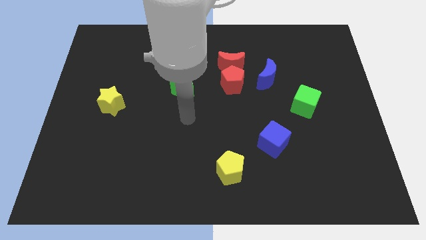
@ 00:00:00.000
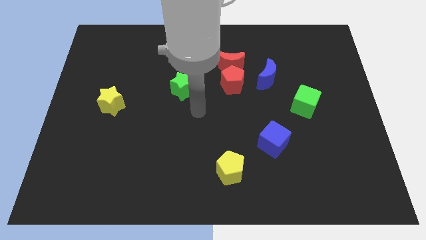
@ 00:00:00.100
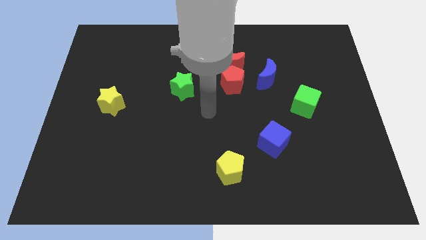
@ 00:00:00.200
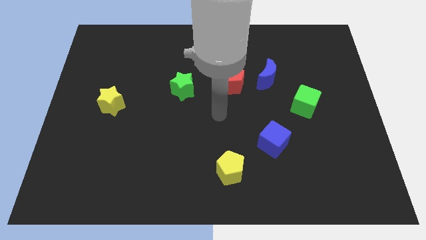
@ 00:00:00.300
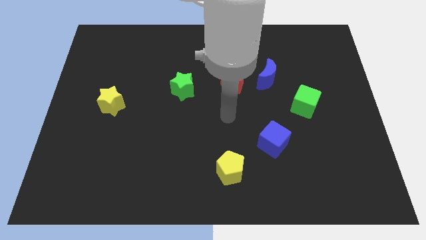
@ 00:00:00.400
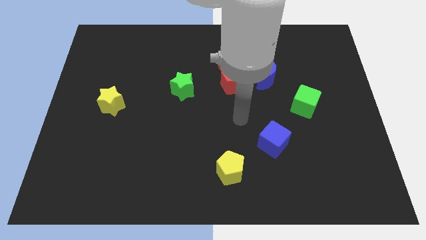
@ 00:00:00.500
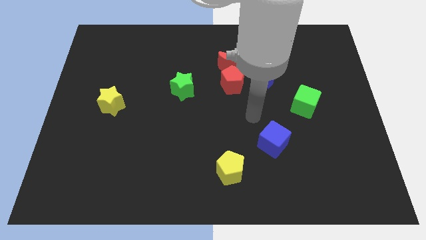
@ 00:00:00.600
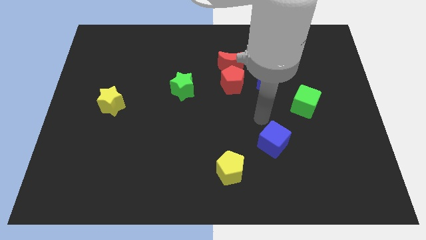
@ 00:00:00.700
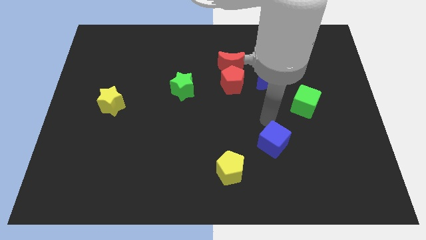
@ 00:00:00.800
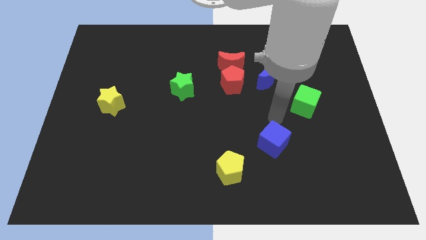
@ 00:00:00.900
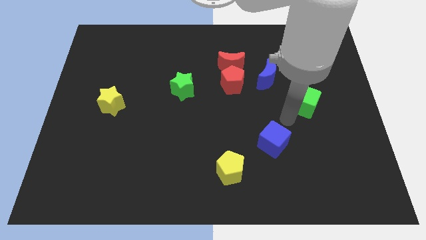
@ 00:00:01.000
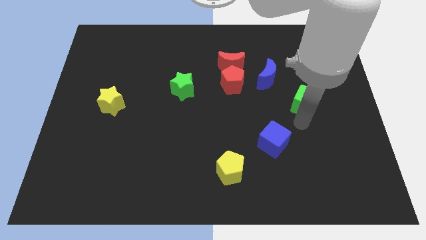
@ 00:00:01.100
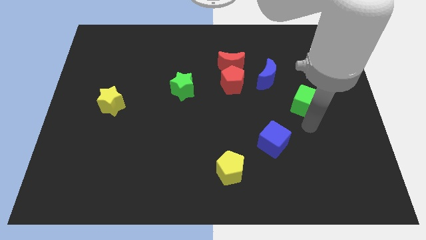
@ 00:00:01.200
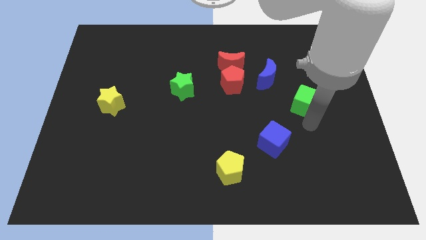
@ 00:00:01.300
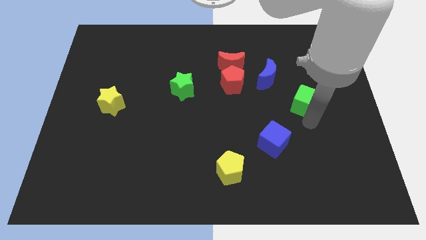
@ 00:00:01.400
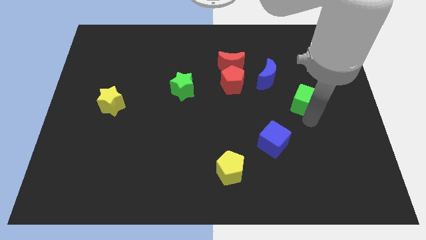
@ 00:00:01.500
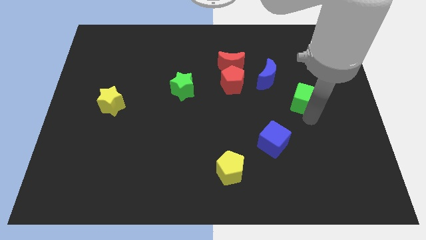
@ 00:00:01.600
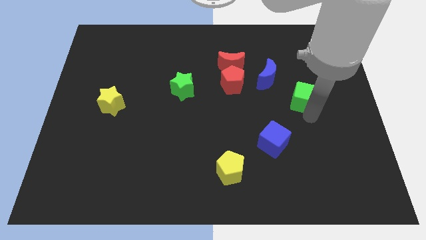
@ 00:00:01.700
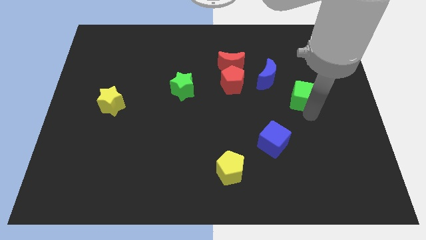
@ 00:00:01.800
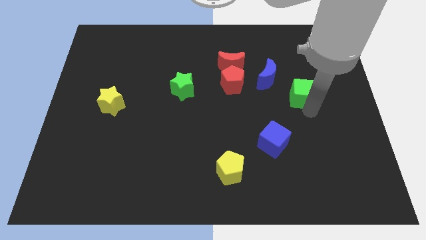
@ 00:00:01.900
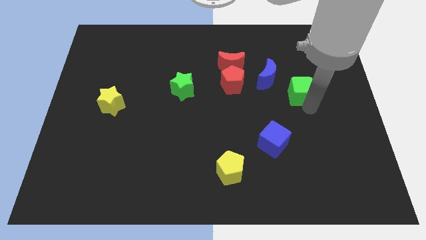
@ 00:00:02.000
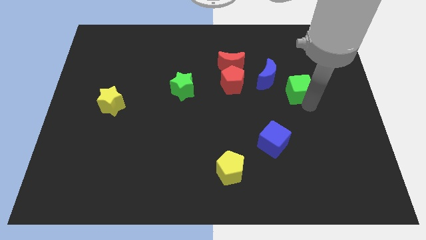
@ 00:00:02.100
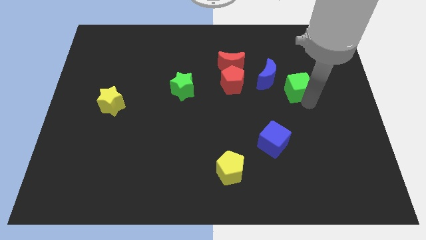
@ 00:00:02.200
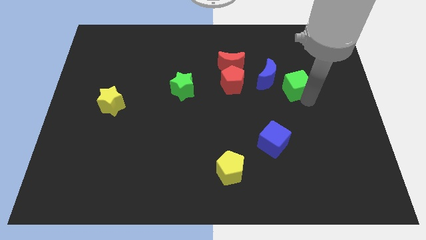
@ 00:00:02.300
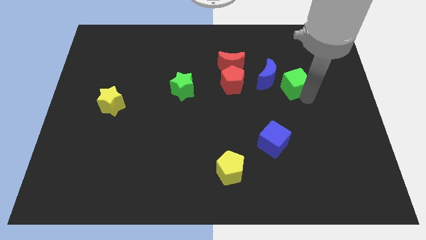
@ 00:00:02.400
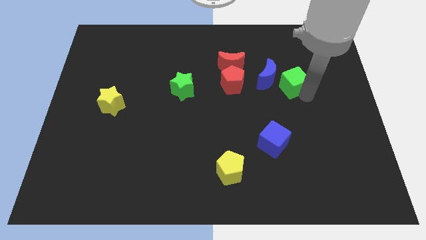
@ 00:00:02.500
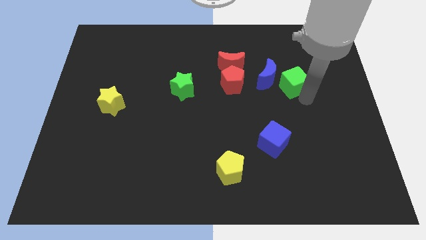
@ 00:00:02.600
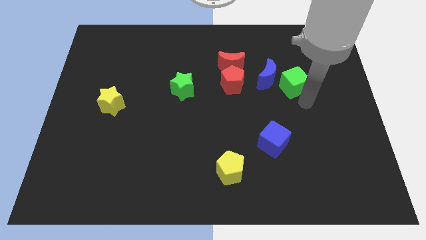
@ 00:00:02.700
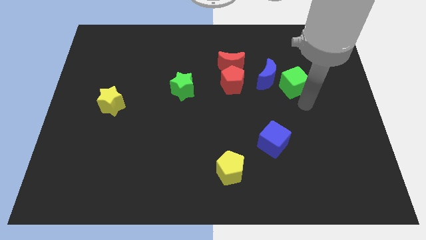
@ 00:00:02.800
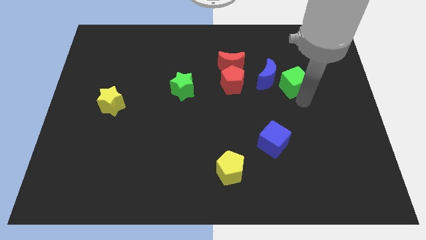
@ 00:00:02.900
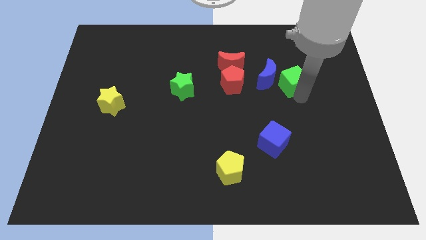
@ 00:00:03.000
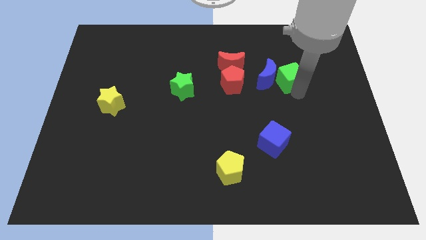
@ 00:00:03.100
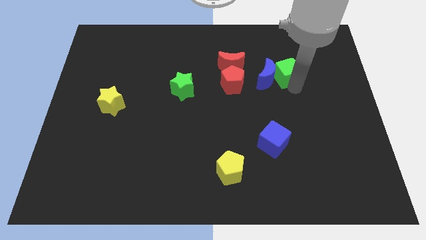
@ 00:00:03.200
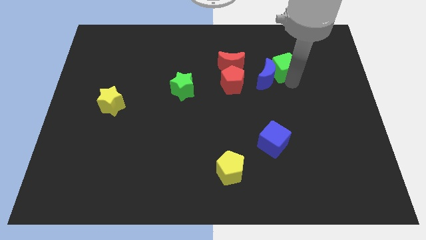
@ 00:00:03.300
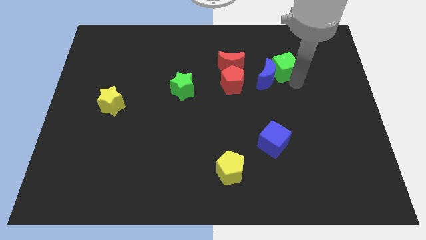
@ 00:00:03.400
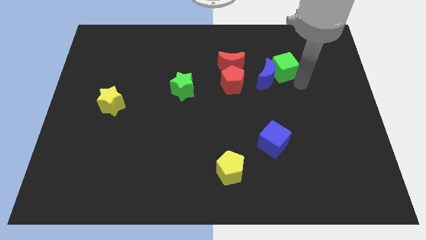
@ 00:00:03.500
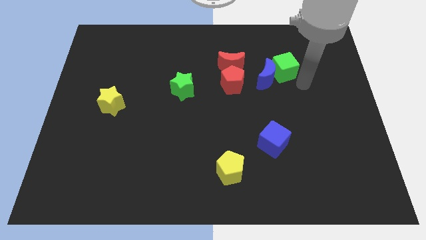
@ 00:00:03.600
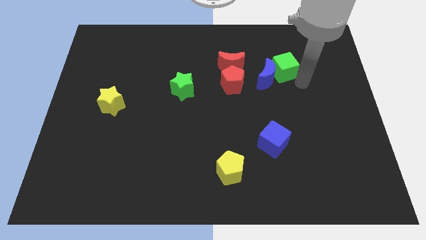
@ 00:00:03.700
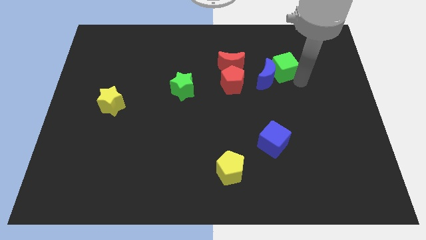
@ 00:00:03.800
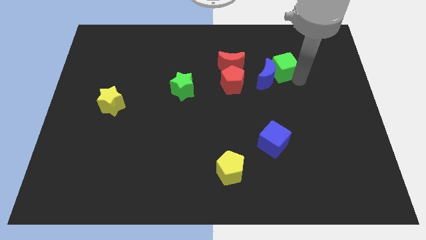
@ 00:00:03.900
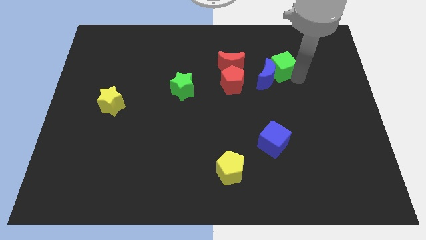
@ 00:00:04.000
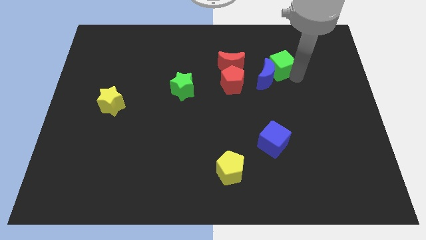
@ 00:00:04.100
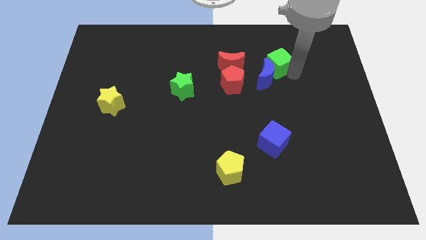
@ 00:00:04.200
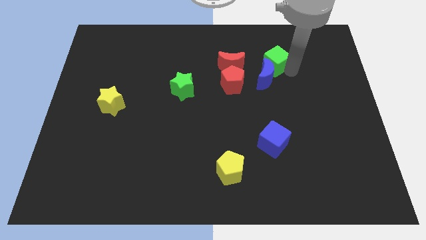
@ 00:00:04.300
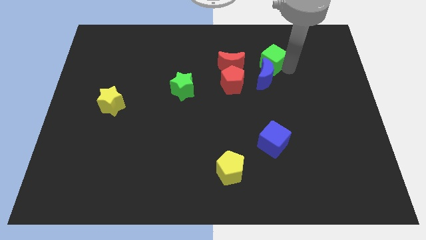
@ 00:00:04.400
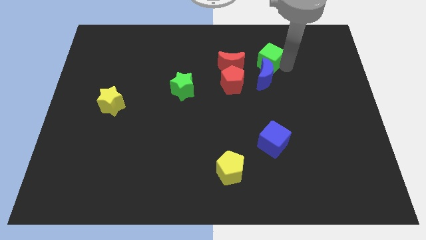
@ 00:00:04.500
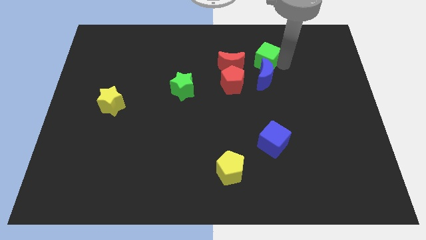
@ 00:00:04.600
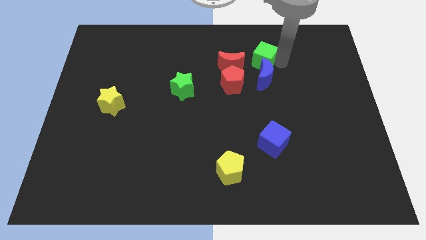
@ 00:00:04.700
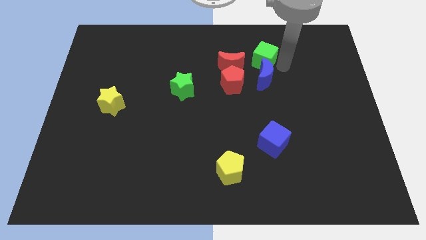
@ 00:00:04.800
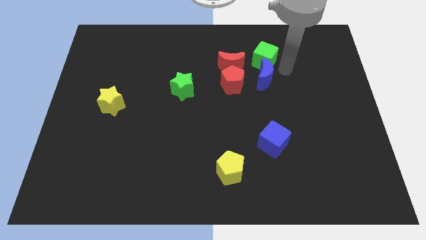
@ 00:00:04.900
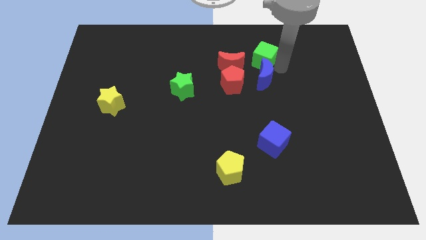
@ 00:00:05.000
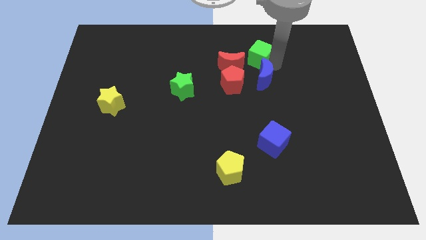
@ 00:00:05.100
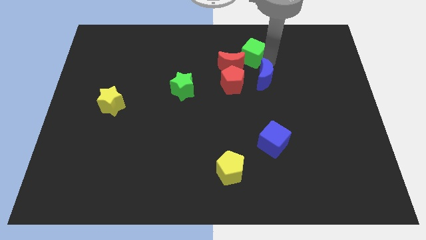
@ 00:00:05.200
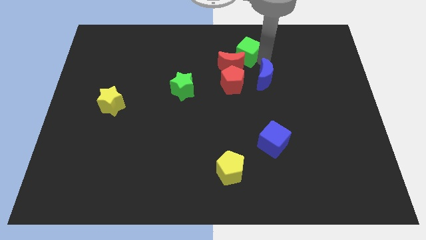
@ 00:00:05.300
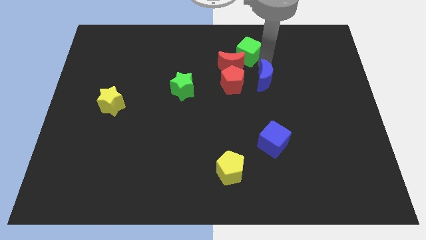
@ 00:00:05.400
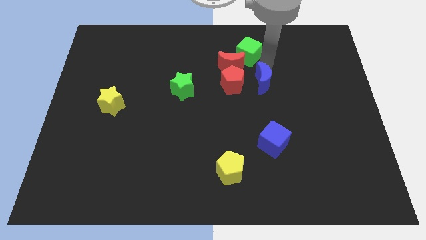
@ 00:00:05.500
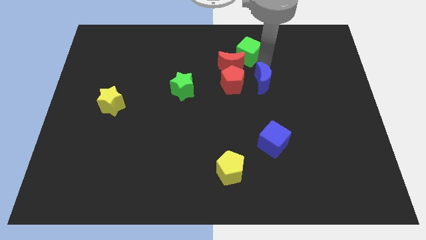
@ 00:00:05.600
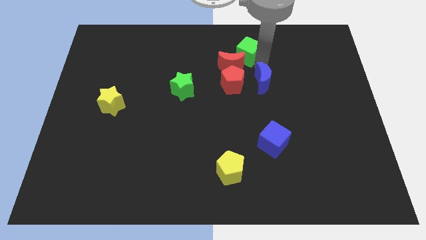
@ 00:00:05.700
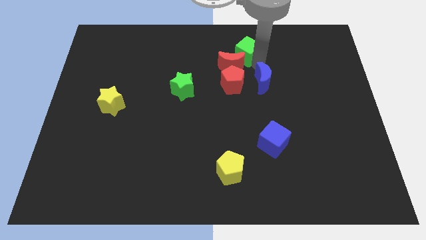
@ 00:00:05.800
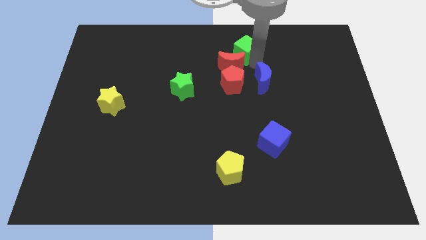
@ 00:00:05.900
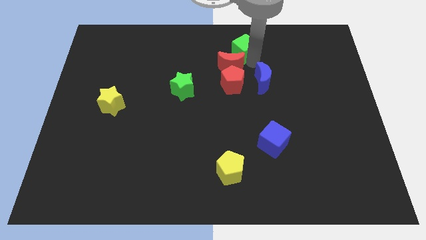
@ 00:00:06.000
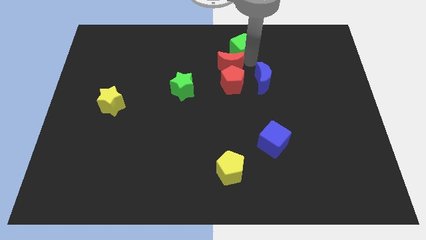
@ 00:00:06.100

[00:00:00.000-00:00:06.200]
slide the green cube to the top
